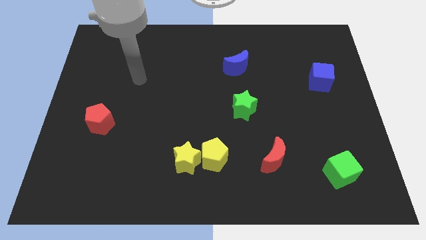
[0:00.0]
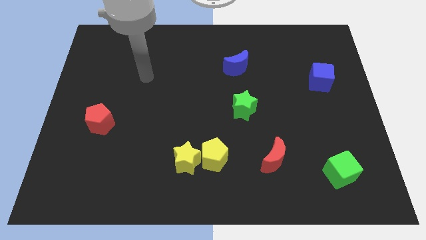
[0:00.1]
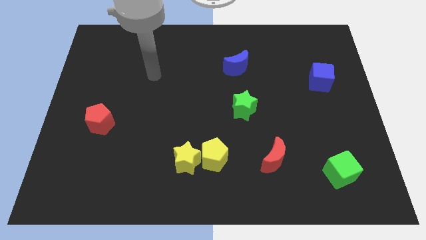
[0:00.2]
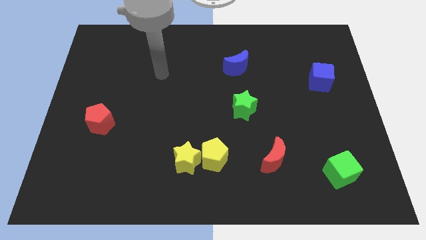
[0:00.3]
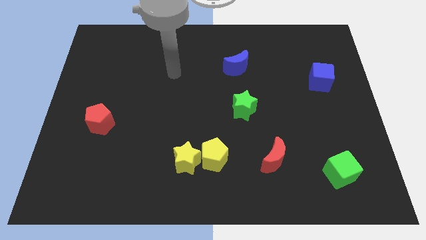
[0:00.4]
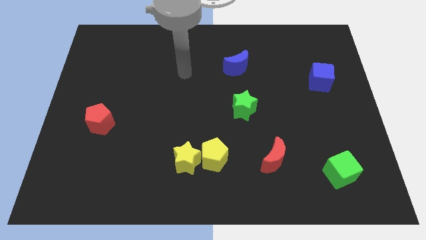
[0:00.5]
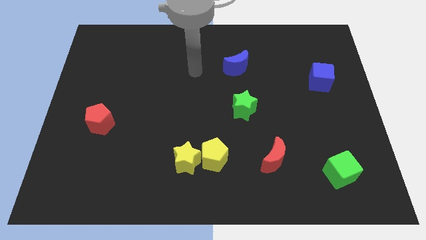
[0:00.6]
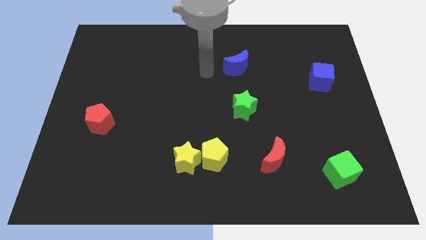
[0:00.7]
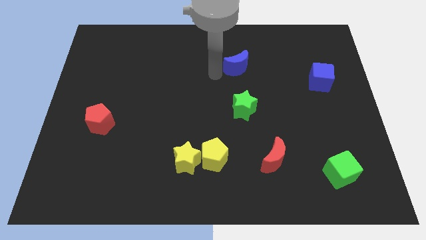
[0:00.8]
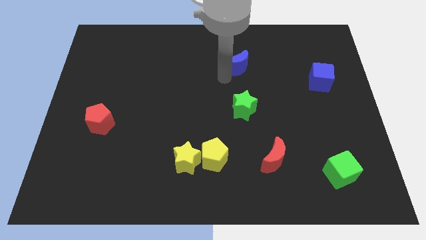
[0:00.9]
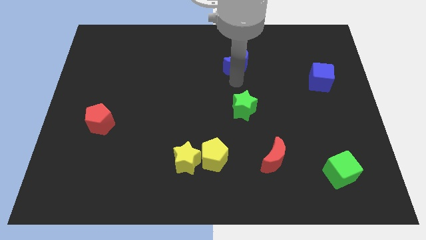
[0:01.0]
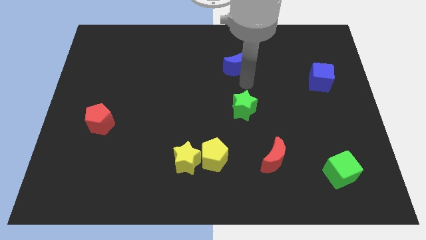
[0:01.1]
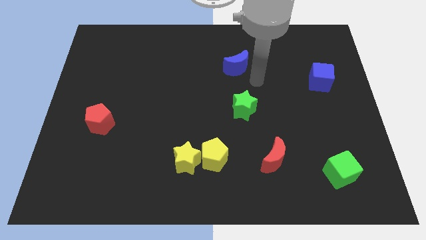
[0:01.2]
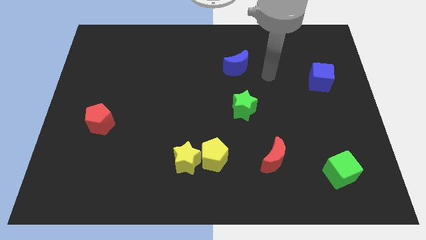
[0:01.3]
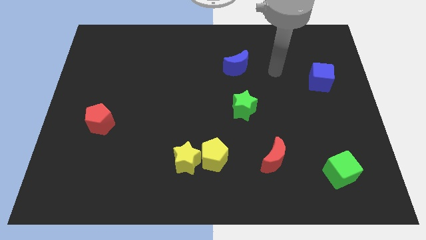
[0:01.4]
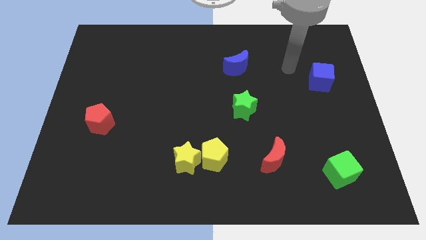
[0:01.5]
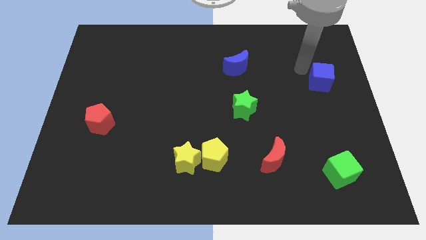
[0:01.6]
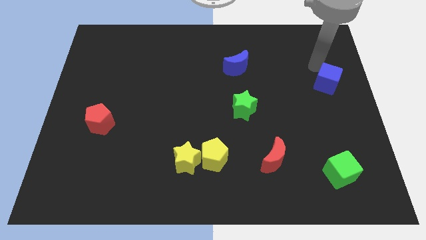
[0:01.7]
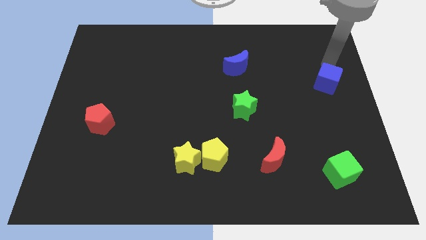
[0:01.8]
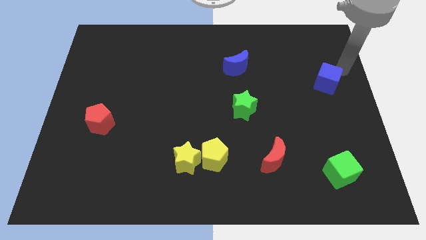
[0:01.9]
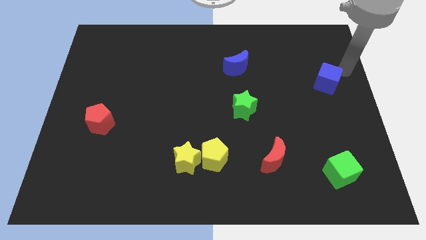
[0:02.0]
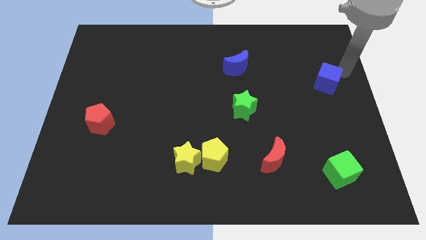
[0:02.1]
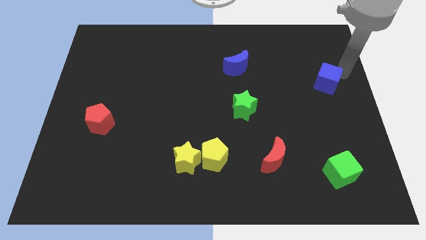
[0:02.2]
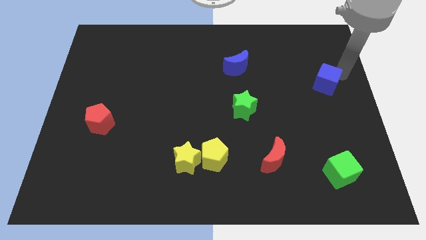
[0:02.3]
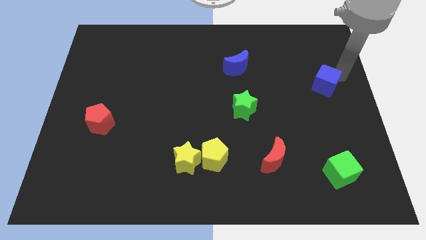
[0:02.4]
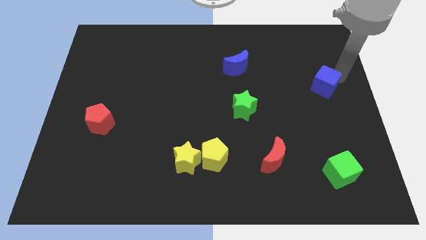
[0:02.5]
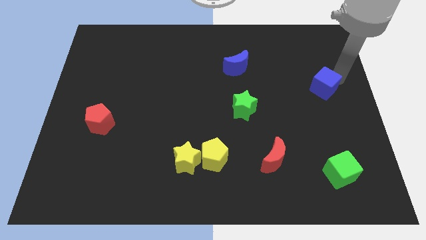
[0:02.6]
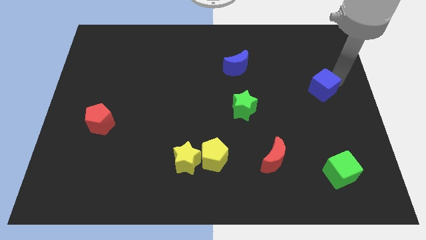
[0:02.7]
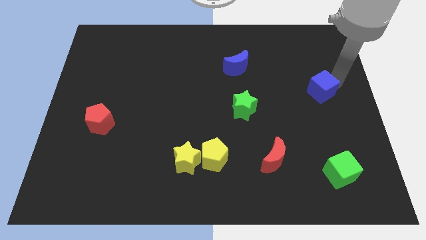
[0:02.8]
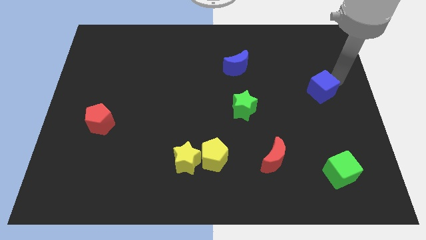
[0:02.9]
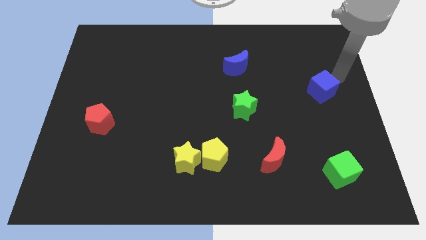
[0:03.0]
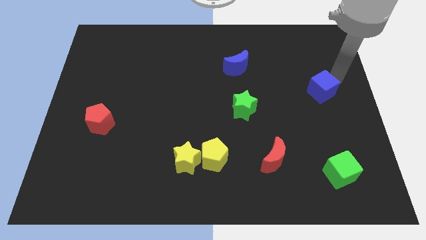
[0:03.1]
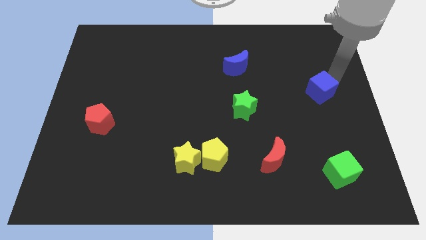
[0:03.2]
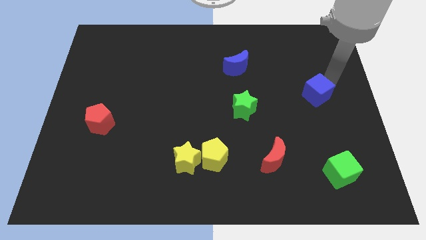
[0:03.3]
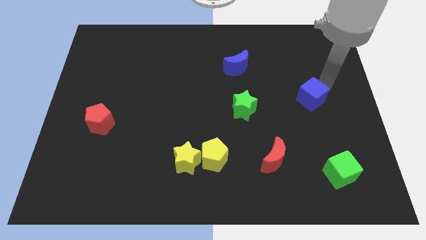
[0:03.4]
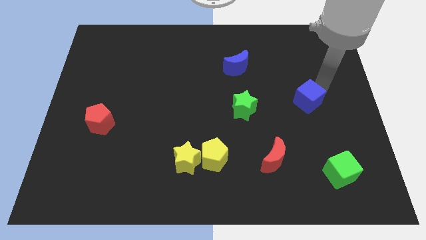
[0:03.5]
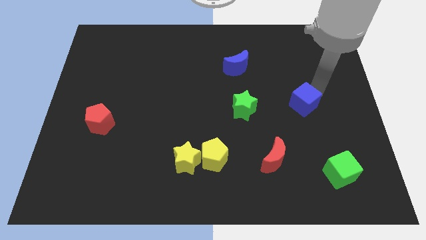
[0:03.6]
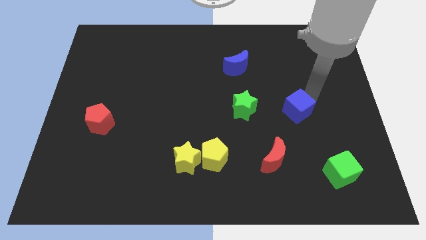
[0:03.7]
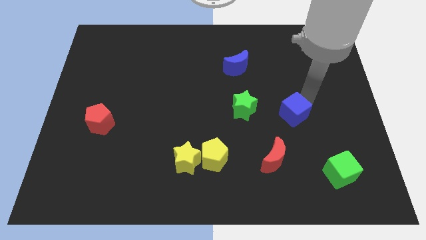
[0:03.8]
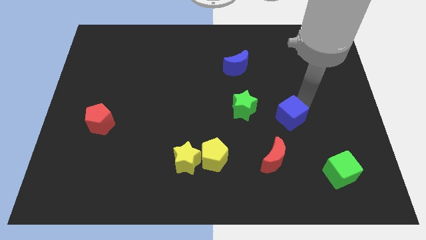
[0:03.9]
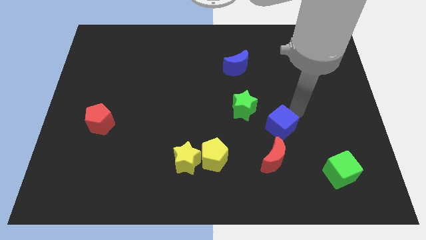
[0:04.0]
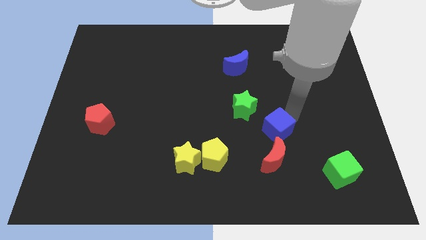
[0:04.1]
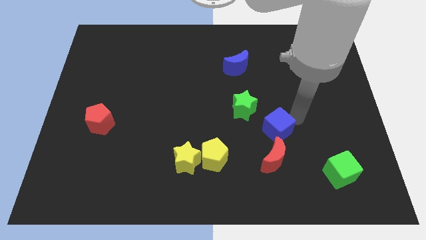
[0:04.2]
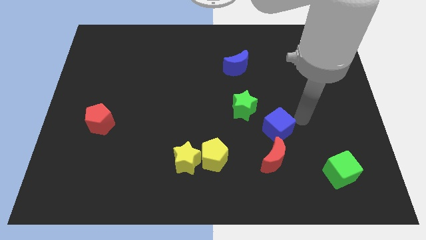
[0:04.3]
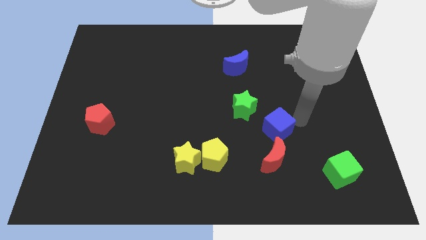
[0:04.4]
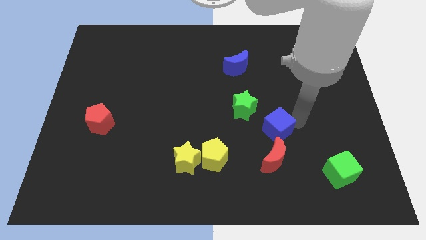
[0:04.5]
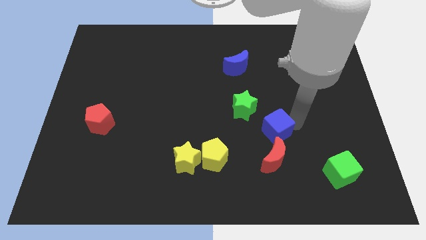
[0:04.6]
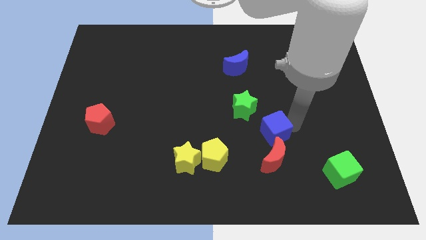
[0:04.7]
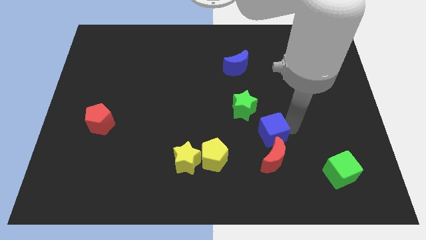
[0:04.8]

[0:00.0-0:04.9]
push the blue cube to the top left side of the red moon

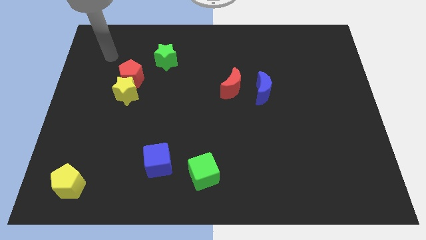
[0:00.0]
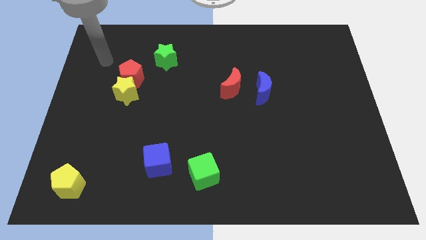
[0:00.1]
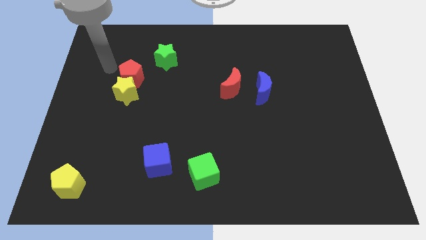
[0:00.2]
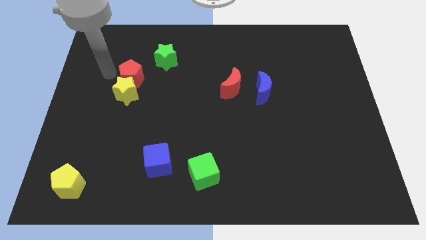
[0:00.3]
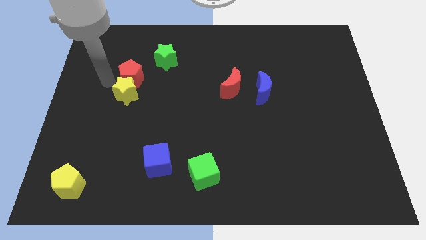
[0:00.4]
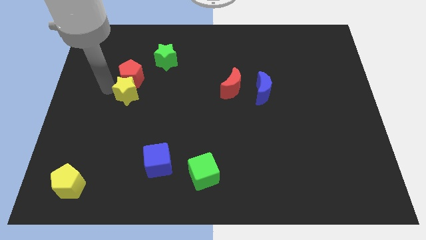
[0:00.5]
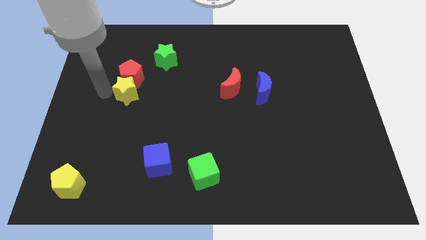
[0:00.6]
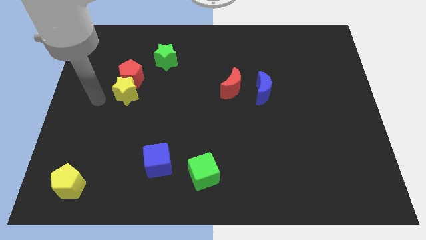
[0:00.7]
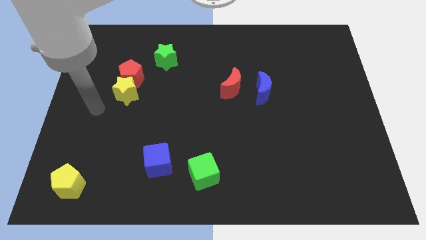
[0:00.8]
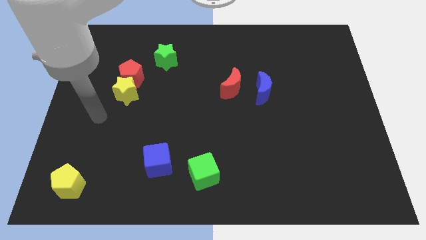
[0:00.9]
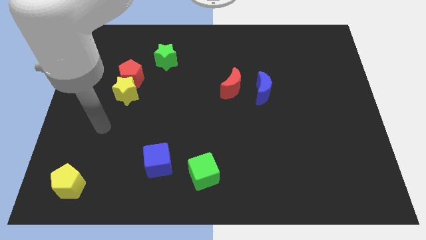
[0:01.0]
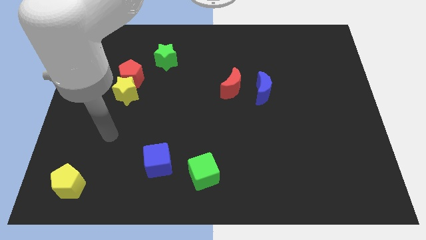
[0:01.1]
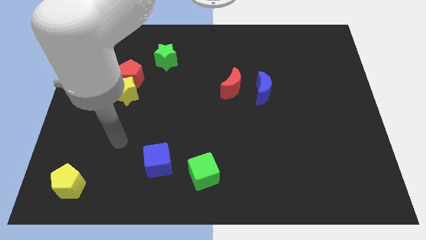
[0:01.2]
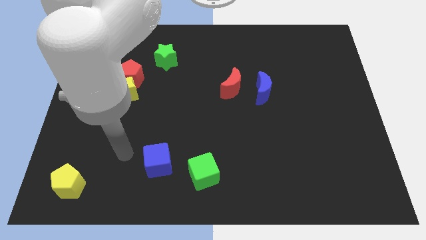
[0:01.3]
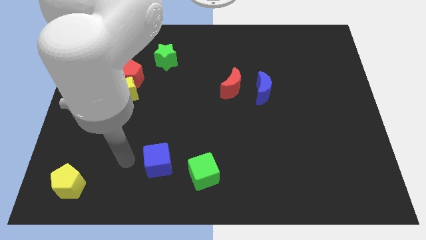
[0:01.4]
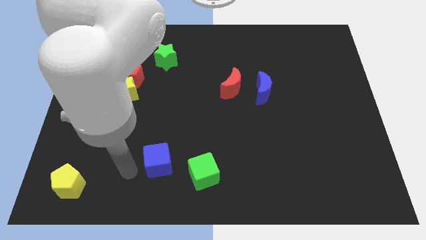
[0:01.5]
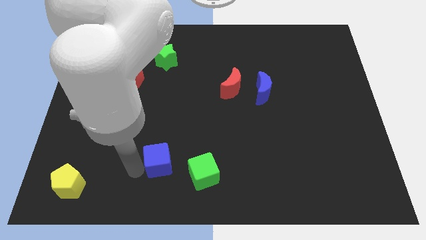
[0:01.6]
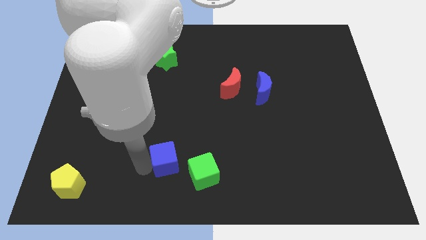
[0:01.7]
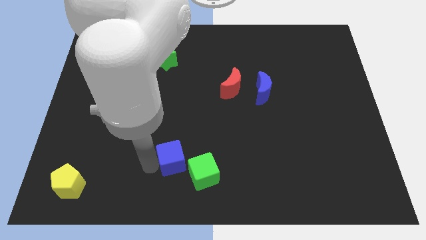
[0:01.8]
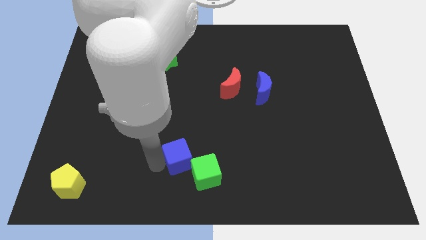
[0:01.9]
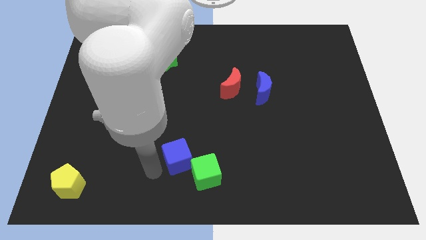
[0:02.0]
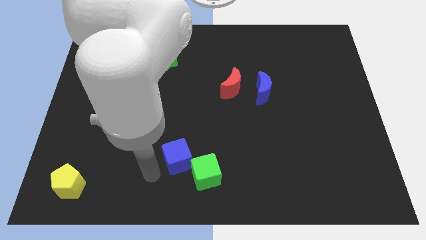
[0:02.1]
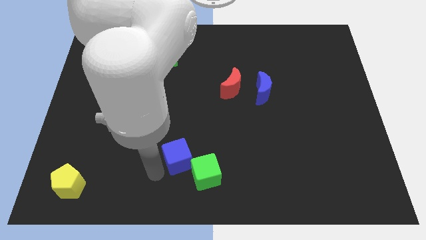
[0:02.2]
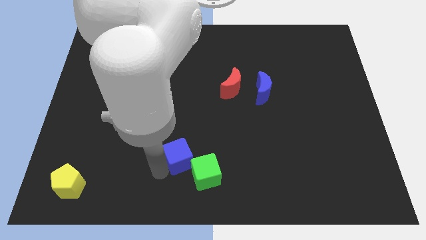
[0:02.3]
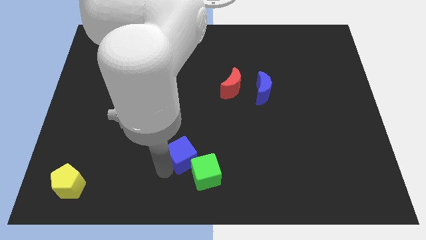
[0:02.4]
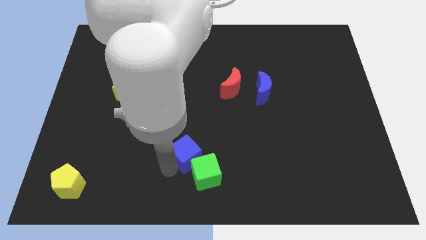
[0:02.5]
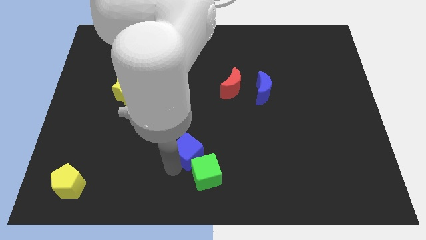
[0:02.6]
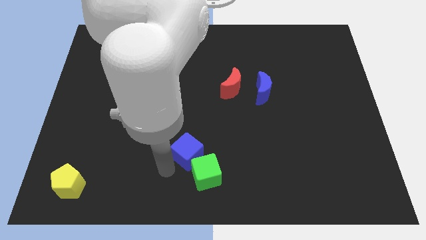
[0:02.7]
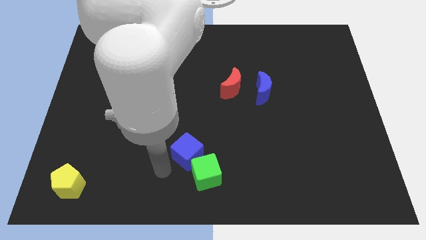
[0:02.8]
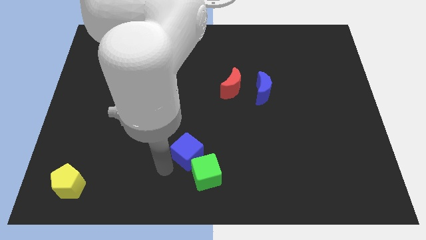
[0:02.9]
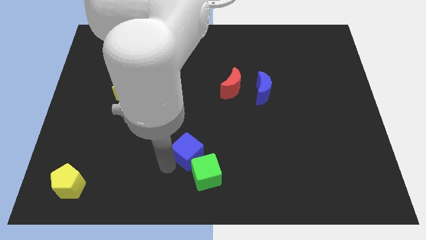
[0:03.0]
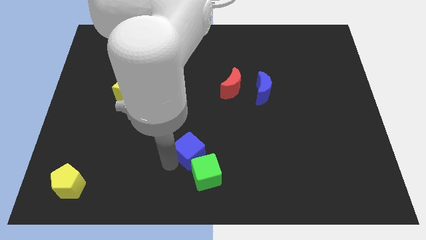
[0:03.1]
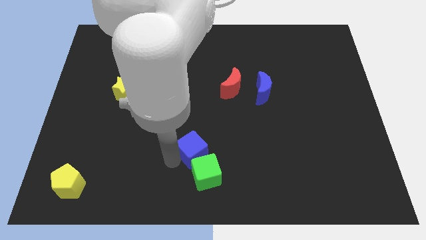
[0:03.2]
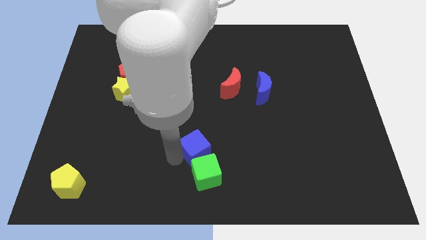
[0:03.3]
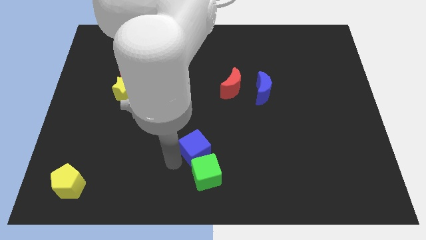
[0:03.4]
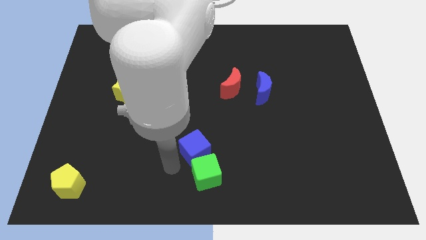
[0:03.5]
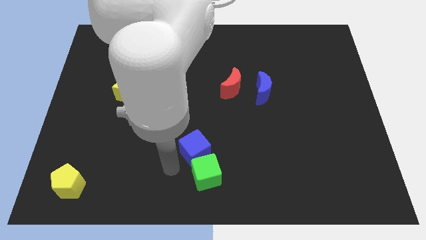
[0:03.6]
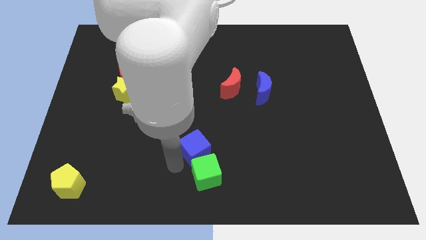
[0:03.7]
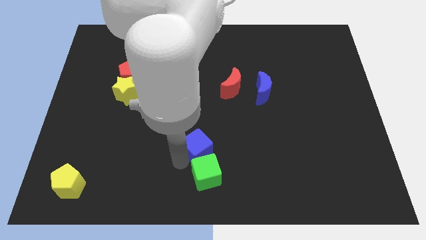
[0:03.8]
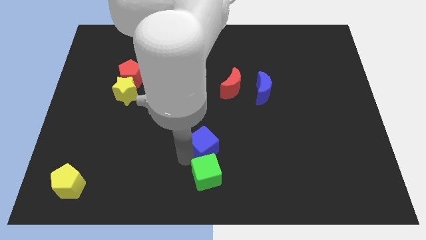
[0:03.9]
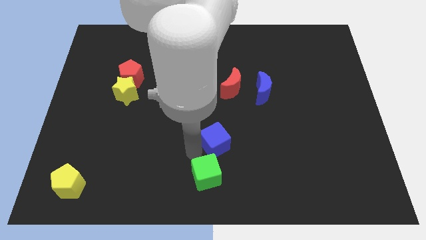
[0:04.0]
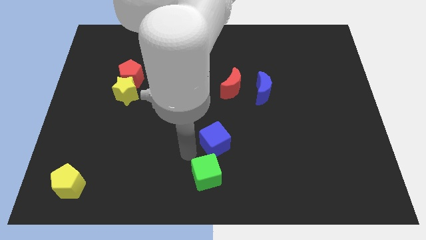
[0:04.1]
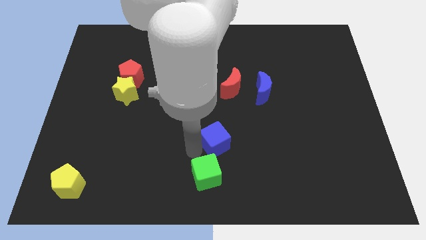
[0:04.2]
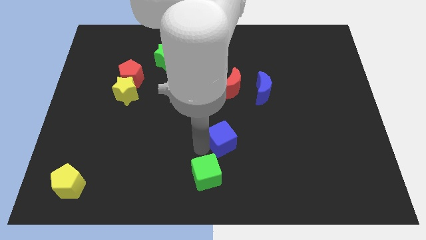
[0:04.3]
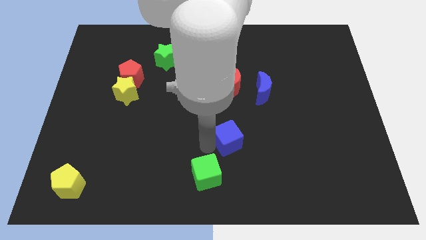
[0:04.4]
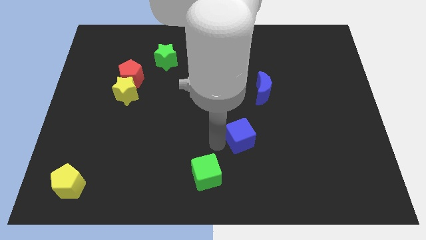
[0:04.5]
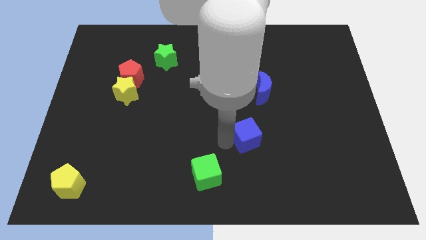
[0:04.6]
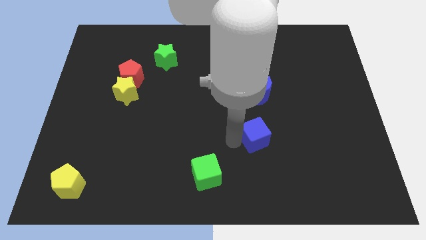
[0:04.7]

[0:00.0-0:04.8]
slide the blue cube below the blue moon
